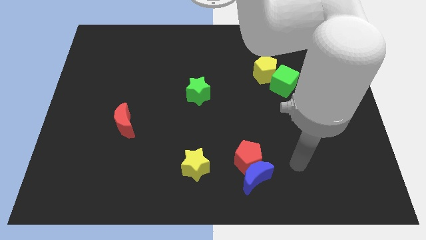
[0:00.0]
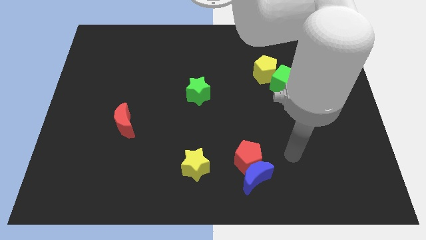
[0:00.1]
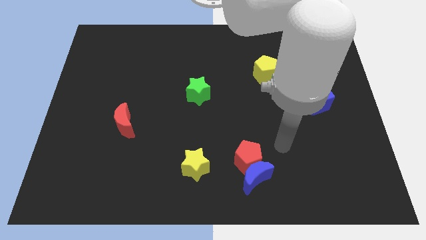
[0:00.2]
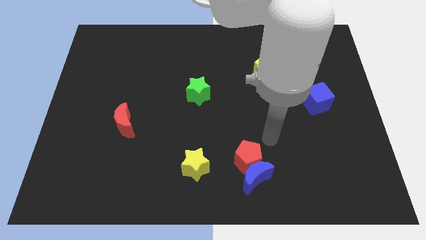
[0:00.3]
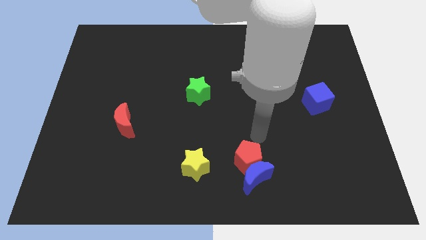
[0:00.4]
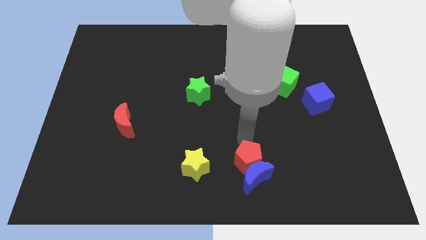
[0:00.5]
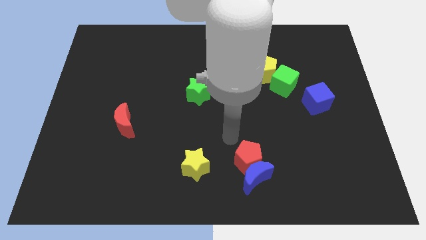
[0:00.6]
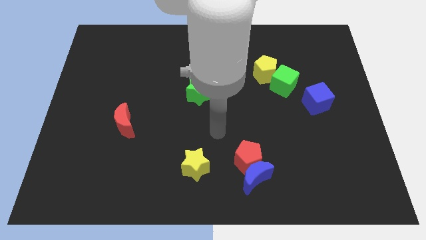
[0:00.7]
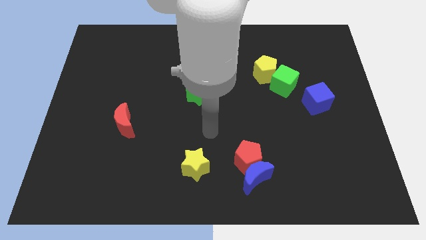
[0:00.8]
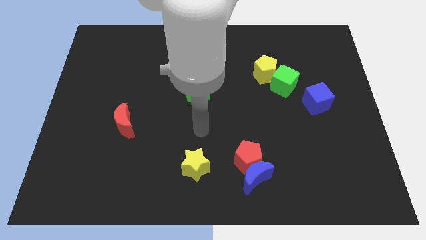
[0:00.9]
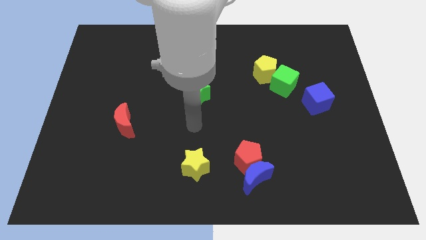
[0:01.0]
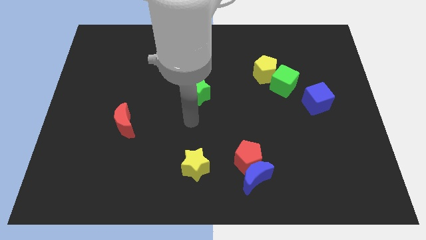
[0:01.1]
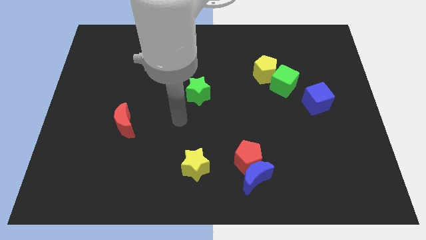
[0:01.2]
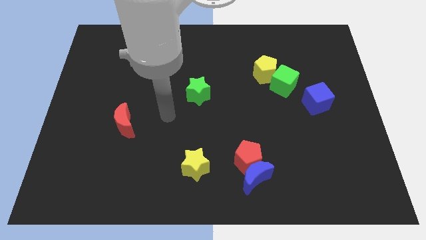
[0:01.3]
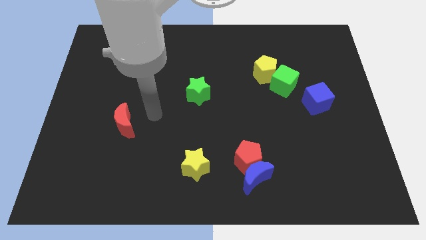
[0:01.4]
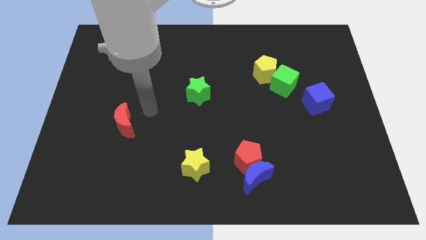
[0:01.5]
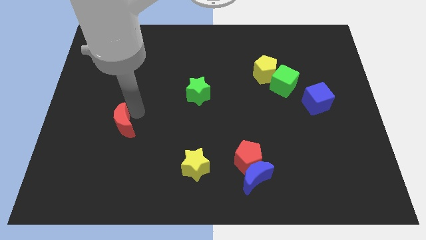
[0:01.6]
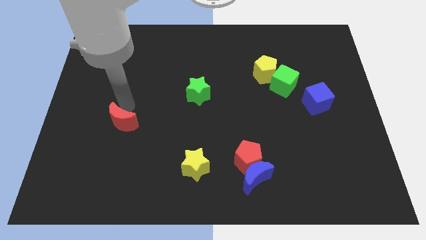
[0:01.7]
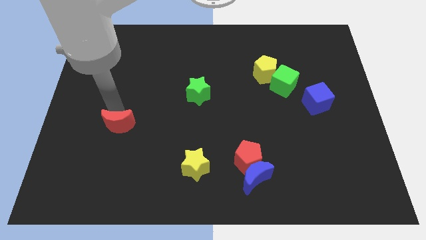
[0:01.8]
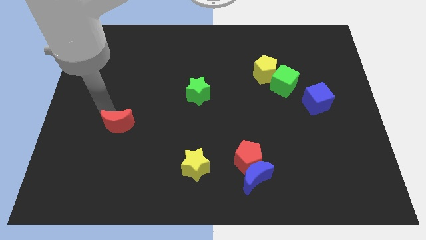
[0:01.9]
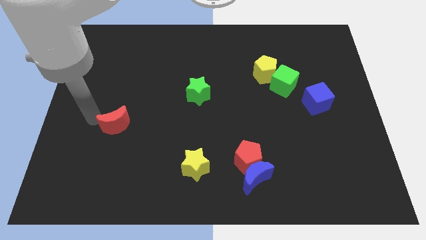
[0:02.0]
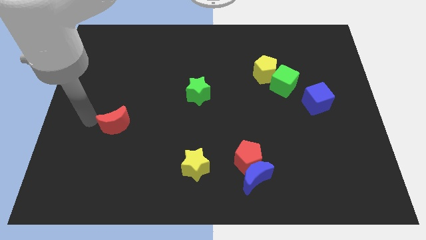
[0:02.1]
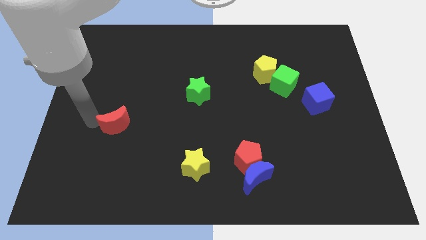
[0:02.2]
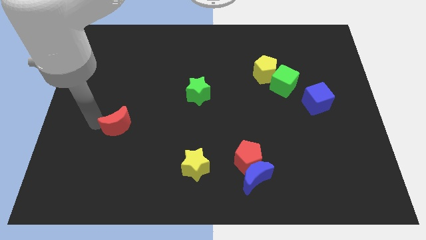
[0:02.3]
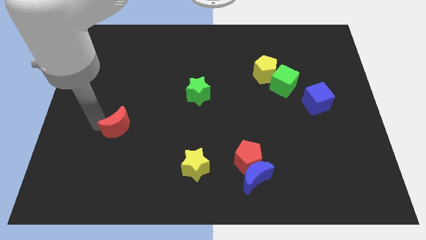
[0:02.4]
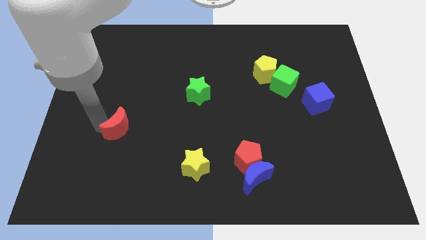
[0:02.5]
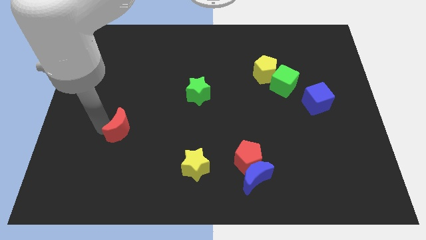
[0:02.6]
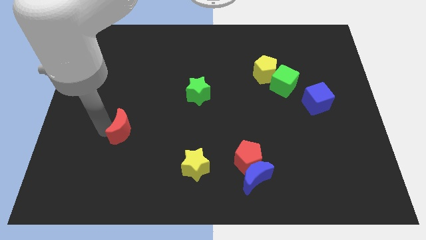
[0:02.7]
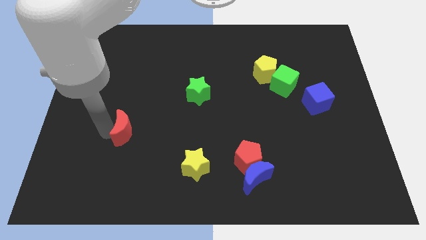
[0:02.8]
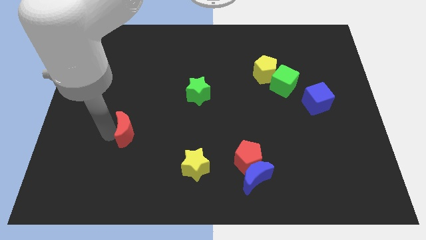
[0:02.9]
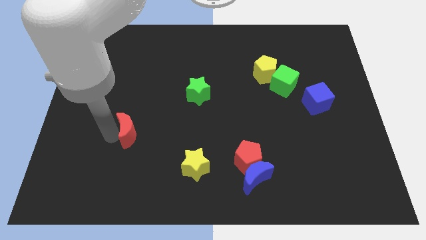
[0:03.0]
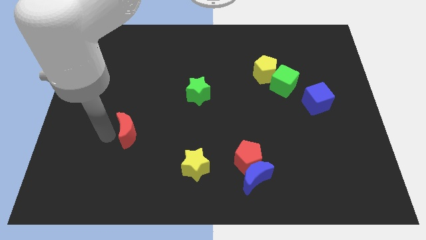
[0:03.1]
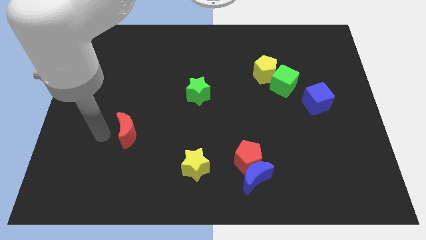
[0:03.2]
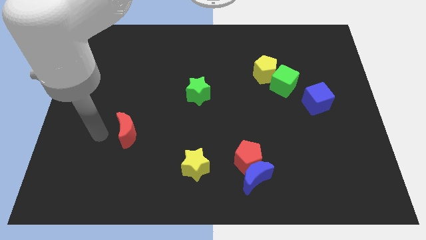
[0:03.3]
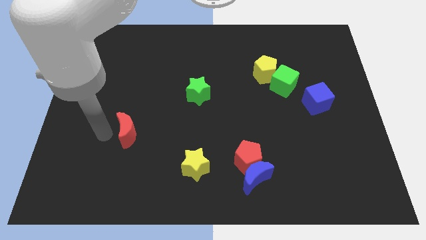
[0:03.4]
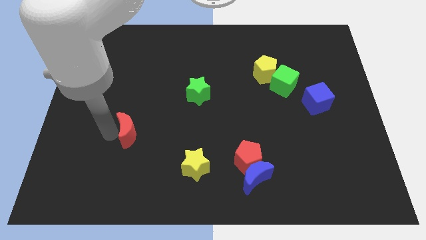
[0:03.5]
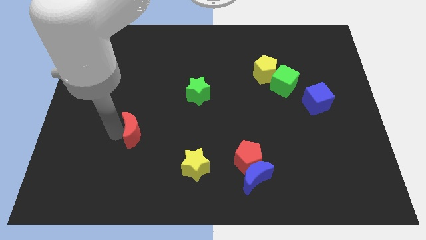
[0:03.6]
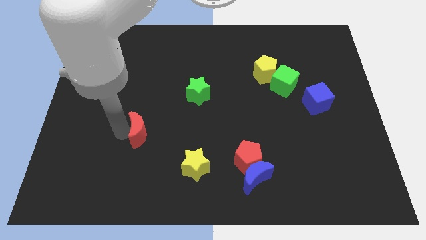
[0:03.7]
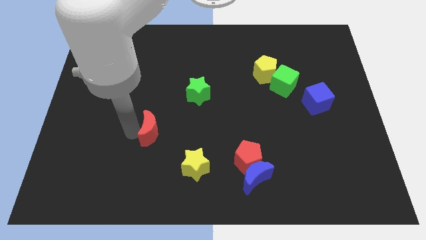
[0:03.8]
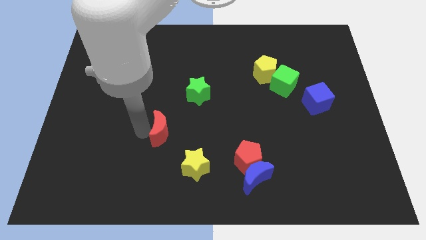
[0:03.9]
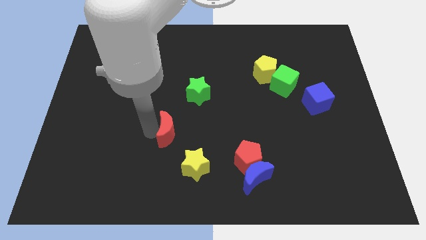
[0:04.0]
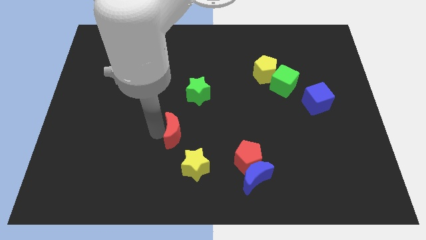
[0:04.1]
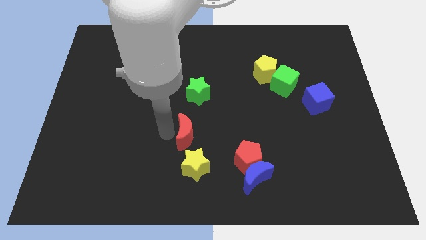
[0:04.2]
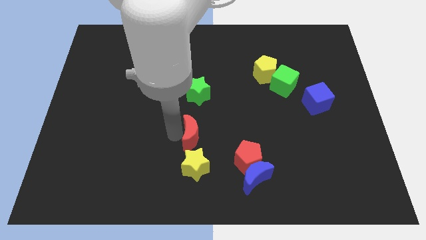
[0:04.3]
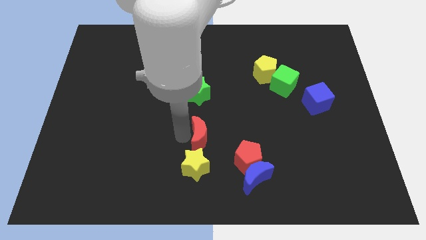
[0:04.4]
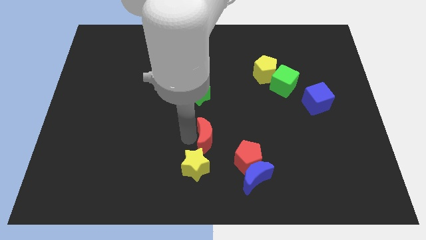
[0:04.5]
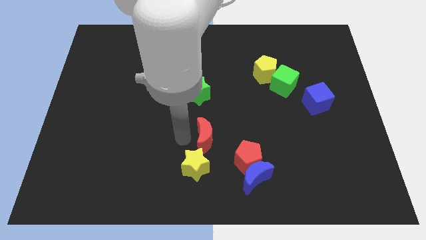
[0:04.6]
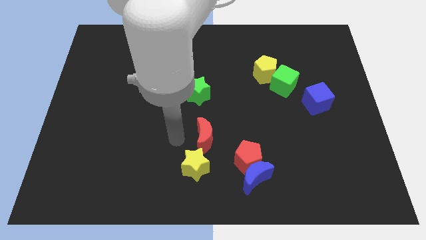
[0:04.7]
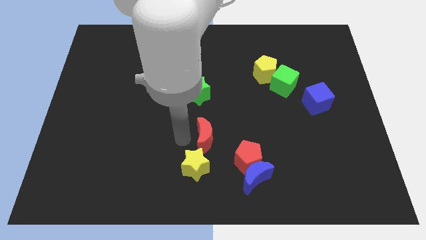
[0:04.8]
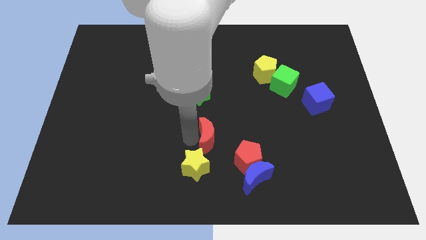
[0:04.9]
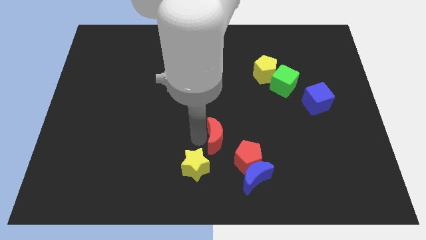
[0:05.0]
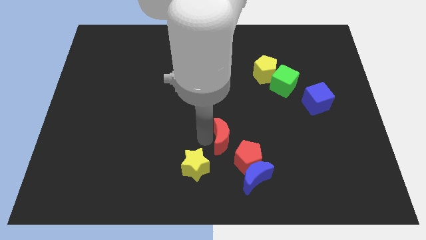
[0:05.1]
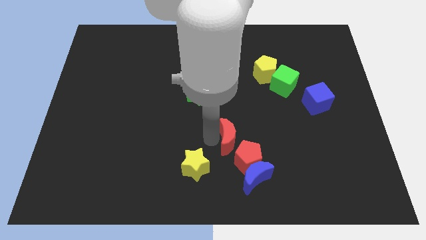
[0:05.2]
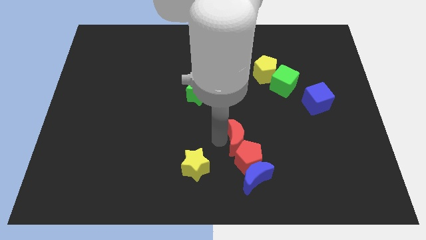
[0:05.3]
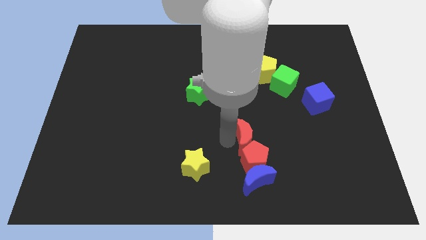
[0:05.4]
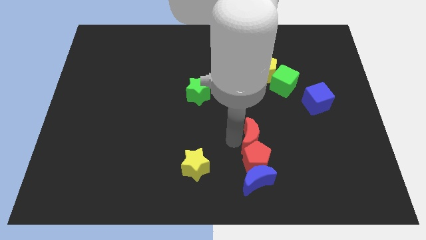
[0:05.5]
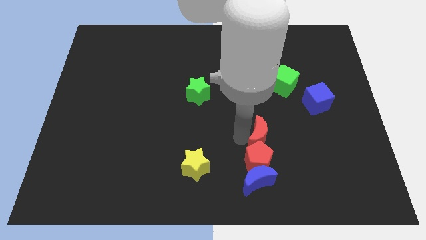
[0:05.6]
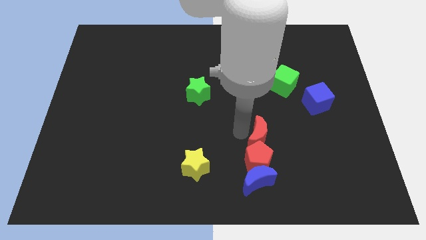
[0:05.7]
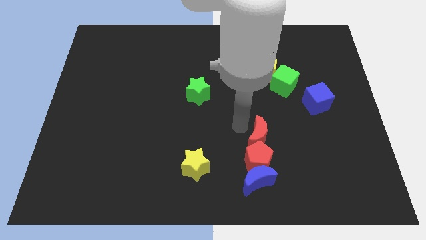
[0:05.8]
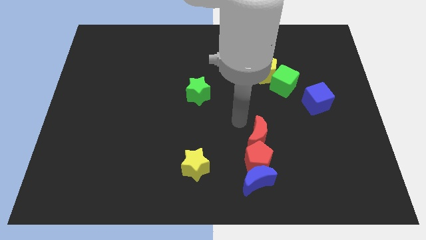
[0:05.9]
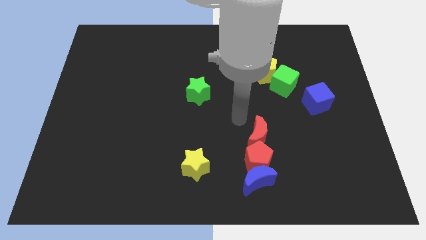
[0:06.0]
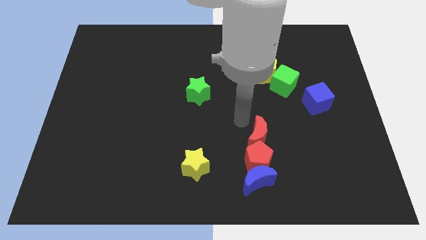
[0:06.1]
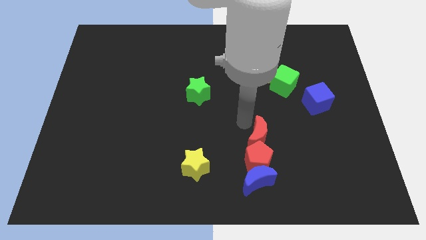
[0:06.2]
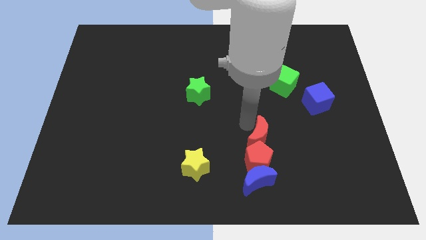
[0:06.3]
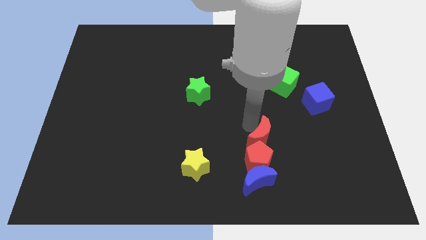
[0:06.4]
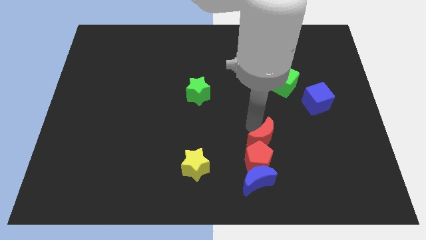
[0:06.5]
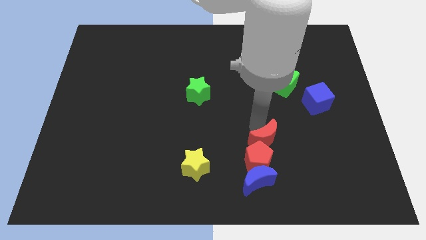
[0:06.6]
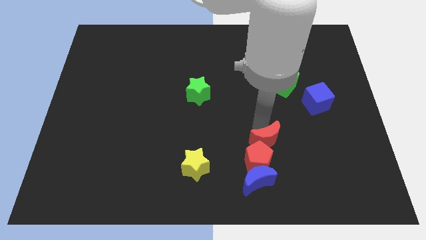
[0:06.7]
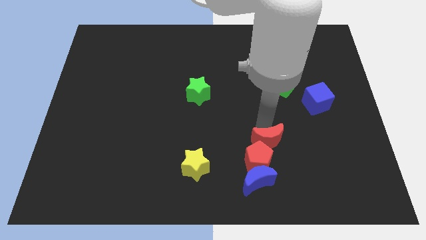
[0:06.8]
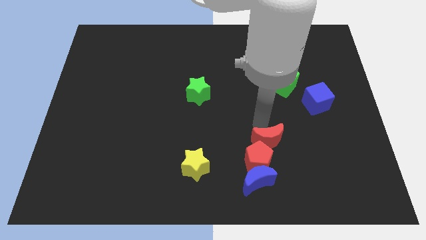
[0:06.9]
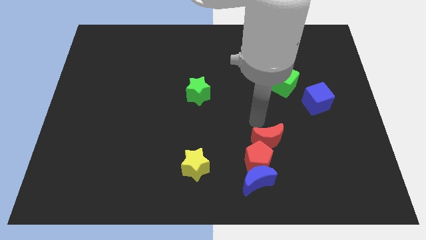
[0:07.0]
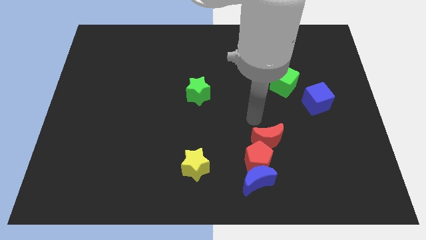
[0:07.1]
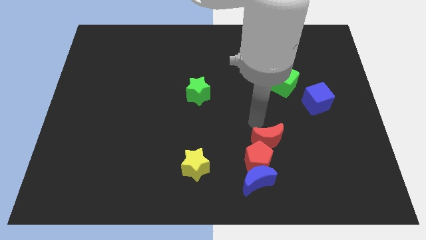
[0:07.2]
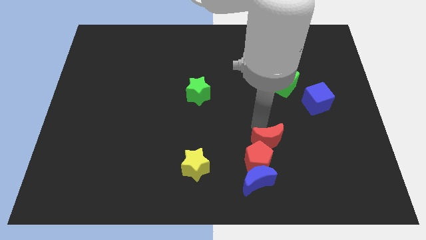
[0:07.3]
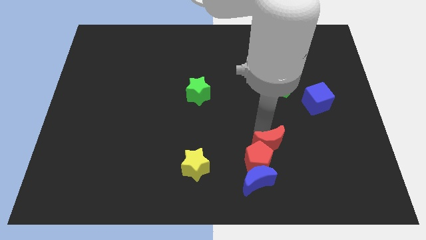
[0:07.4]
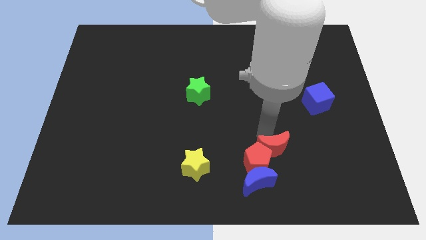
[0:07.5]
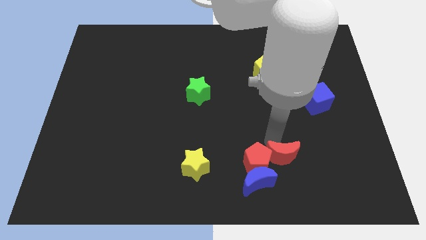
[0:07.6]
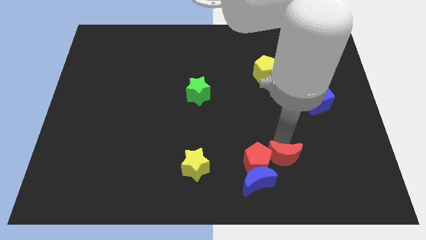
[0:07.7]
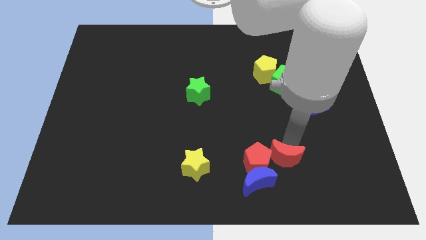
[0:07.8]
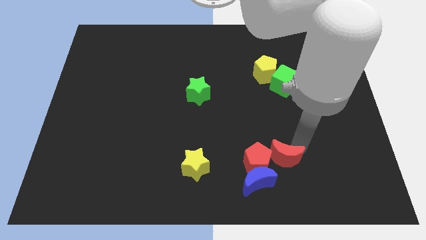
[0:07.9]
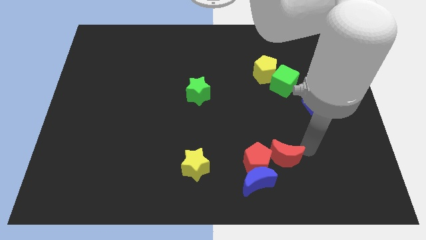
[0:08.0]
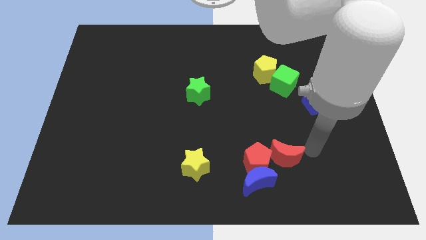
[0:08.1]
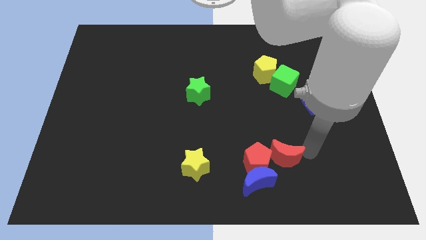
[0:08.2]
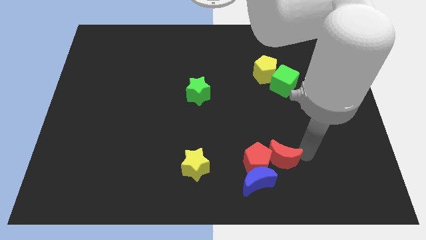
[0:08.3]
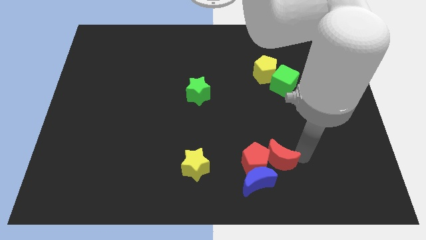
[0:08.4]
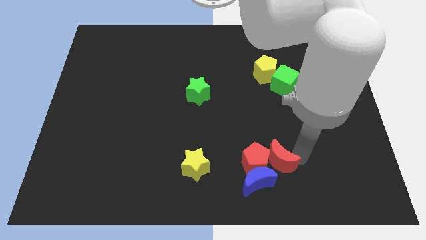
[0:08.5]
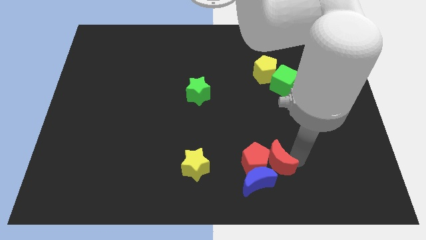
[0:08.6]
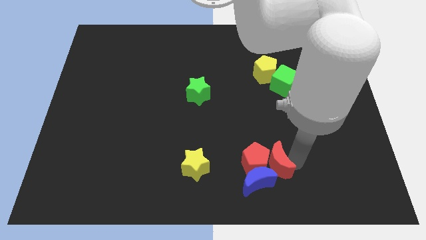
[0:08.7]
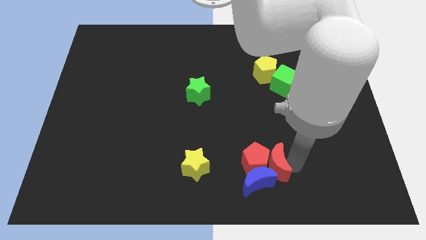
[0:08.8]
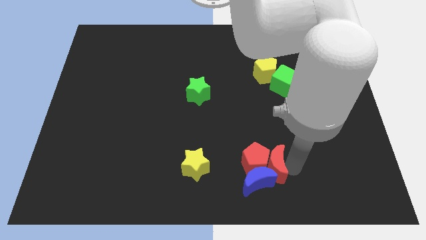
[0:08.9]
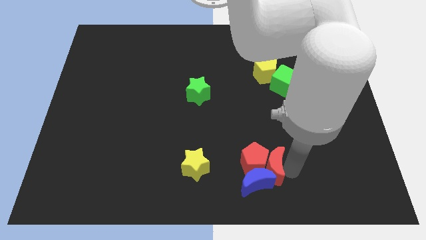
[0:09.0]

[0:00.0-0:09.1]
move the red moon just right of the yellow star
